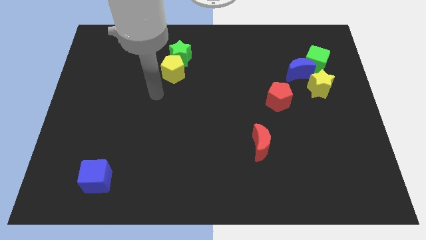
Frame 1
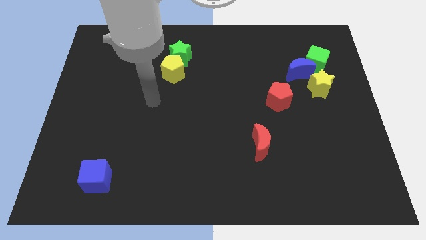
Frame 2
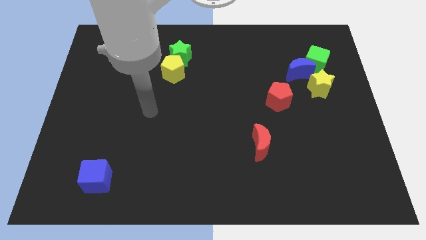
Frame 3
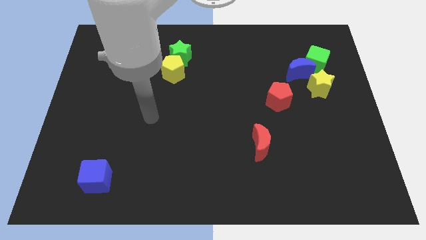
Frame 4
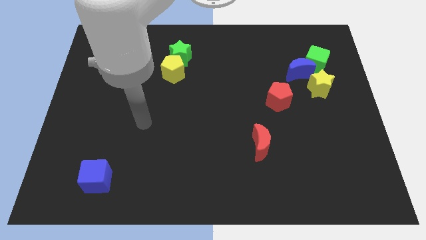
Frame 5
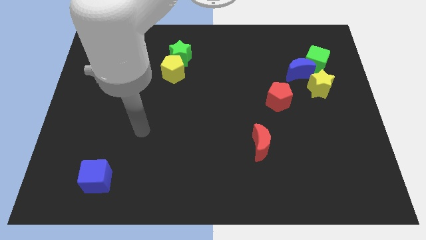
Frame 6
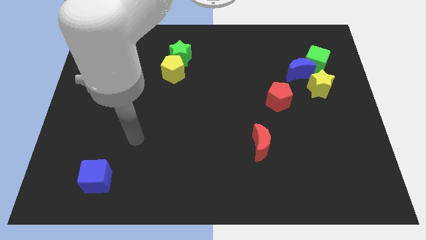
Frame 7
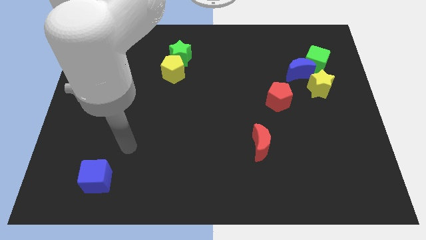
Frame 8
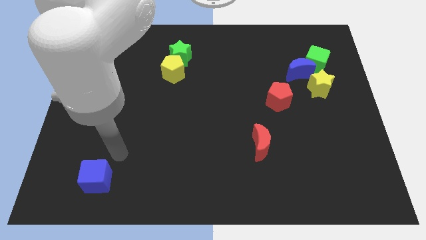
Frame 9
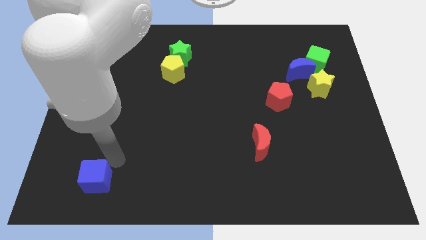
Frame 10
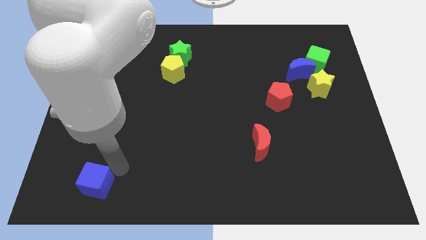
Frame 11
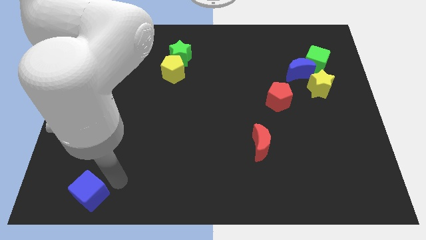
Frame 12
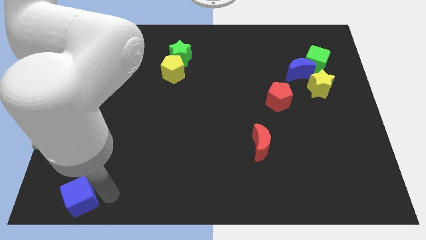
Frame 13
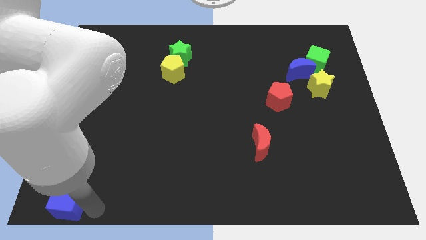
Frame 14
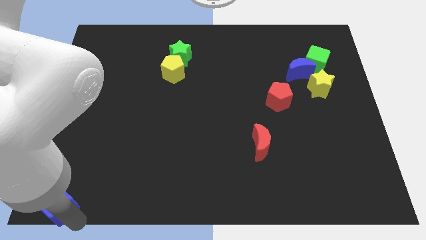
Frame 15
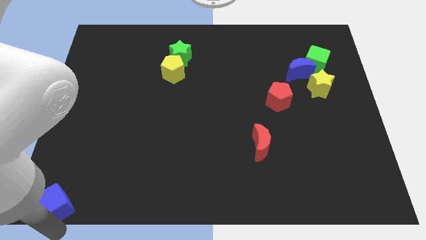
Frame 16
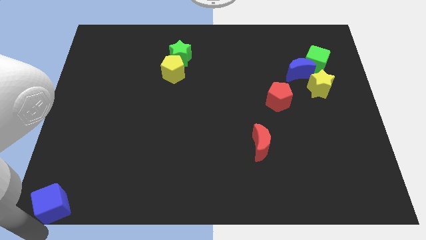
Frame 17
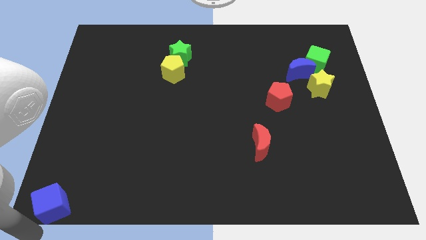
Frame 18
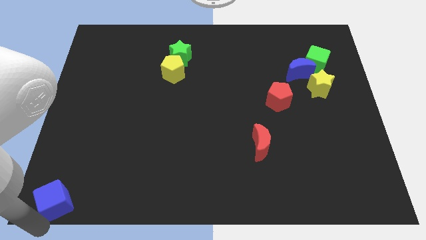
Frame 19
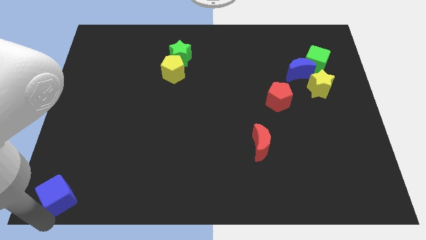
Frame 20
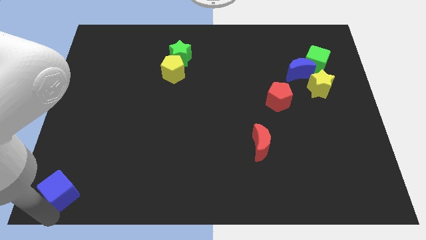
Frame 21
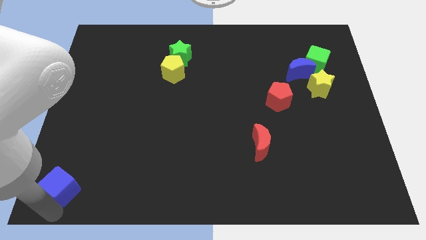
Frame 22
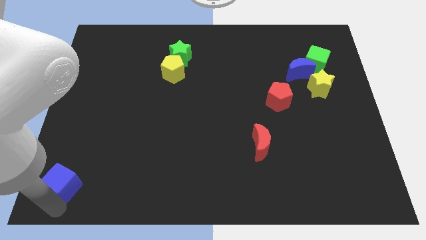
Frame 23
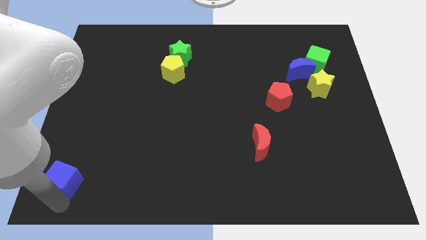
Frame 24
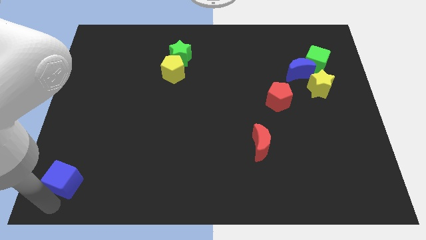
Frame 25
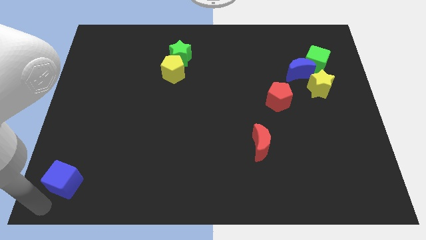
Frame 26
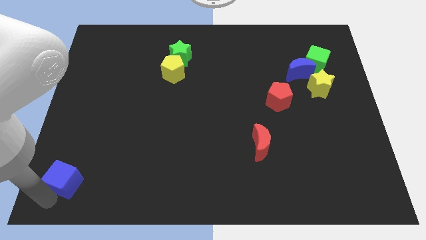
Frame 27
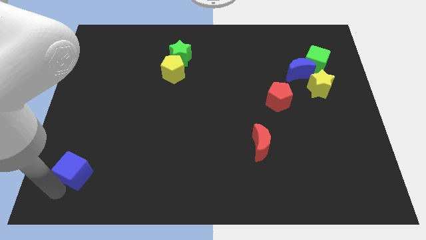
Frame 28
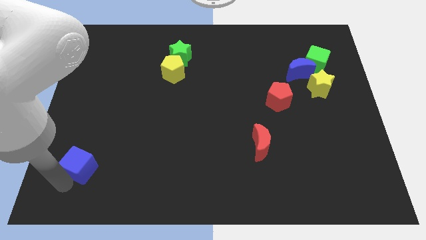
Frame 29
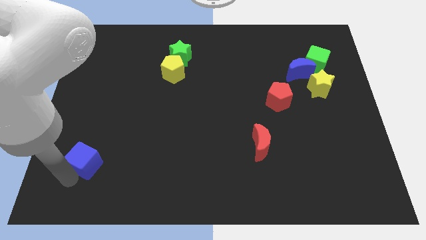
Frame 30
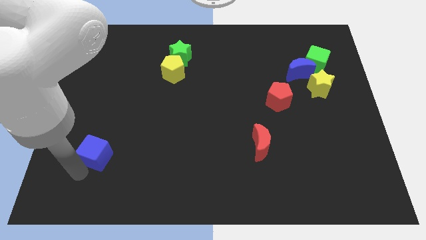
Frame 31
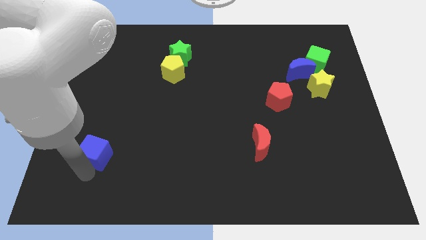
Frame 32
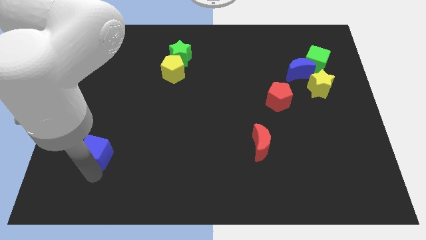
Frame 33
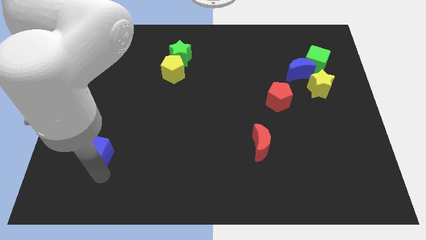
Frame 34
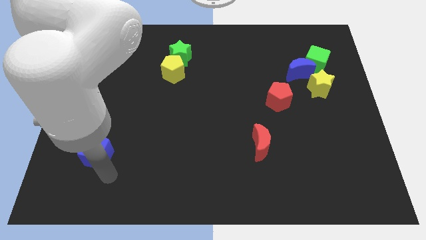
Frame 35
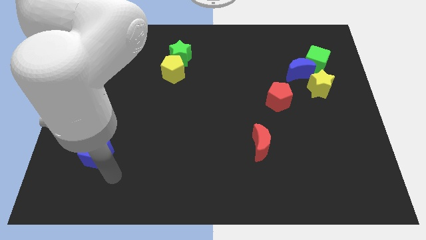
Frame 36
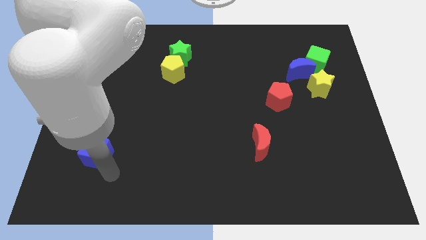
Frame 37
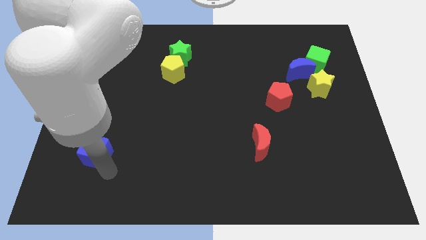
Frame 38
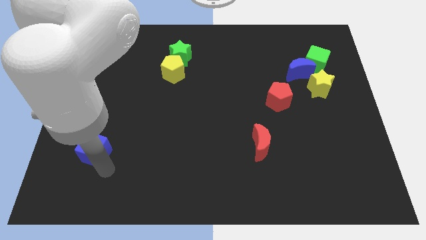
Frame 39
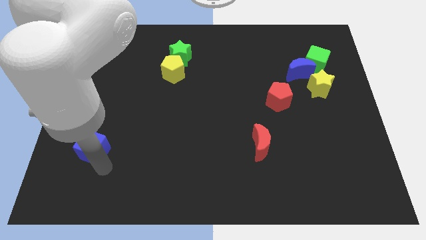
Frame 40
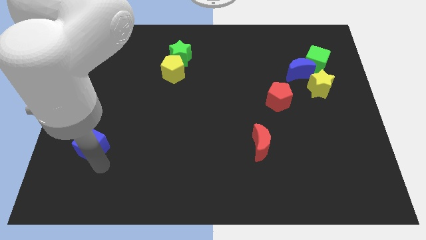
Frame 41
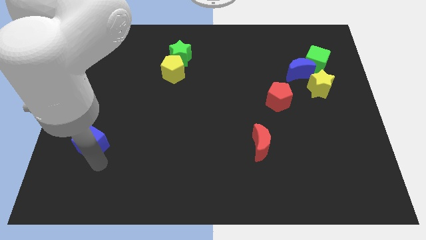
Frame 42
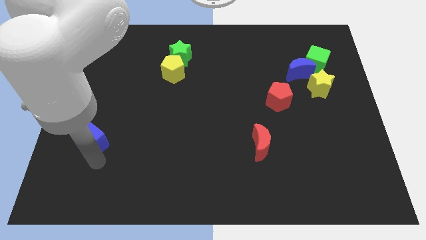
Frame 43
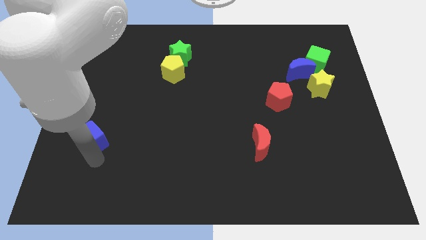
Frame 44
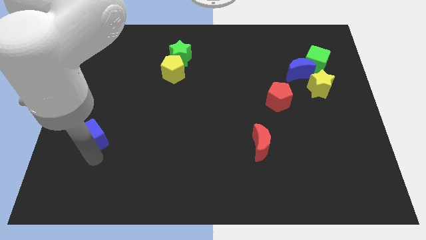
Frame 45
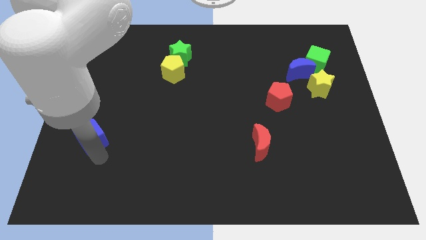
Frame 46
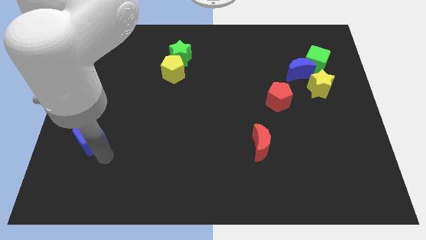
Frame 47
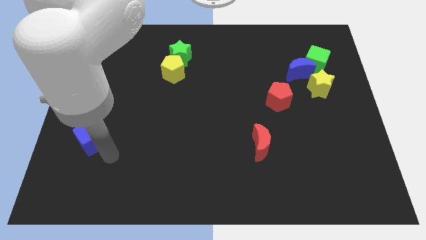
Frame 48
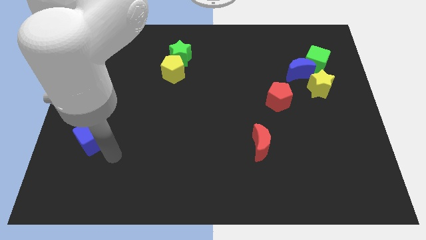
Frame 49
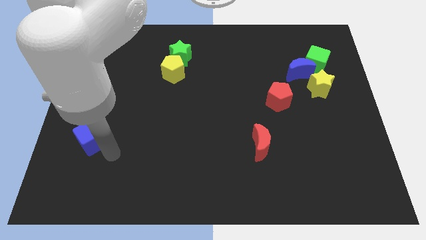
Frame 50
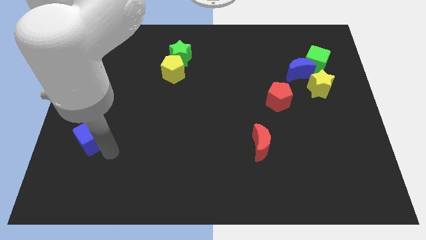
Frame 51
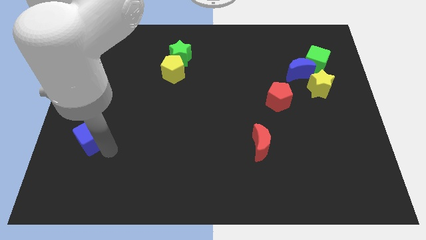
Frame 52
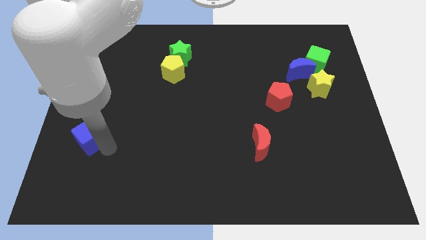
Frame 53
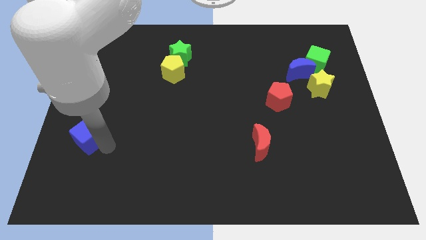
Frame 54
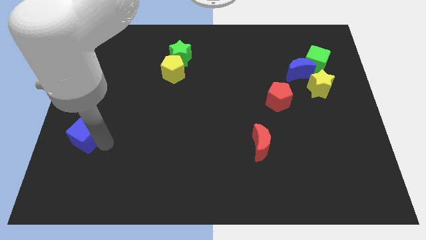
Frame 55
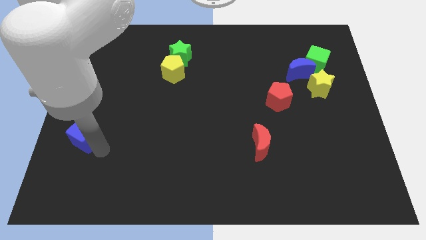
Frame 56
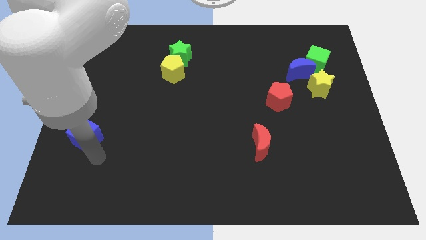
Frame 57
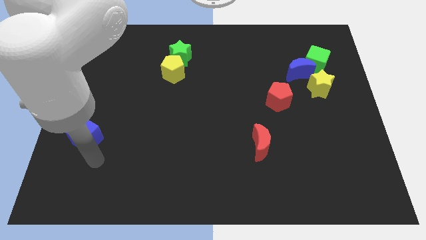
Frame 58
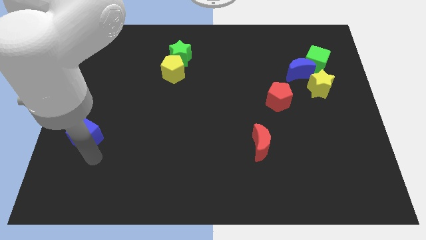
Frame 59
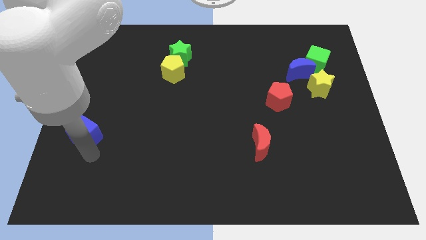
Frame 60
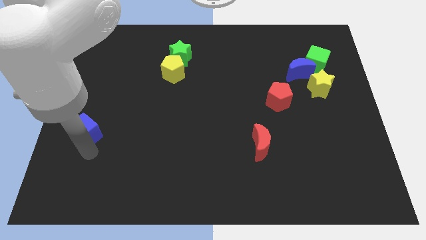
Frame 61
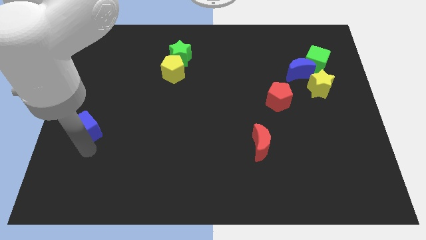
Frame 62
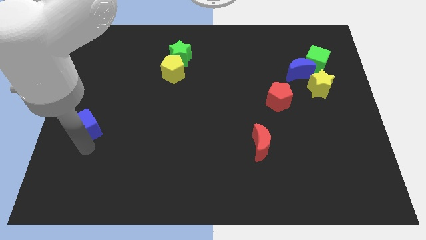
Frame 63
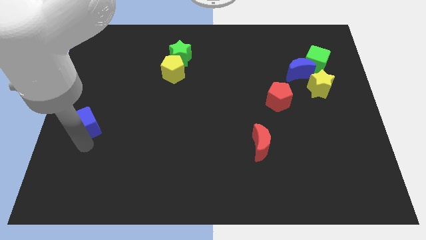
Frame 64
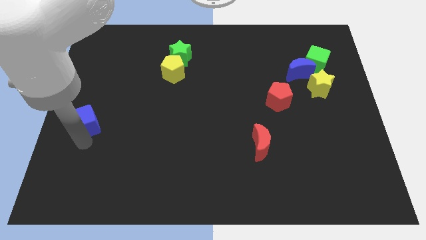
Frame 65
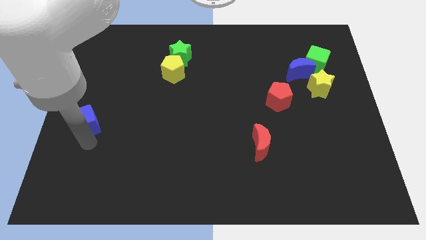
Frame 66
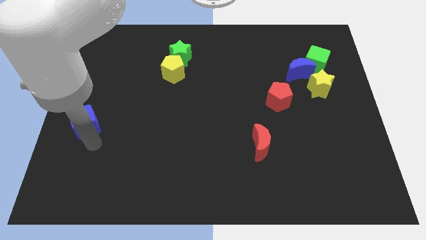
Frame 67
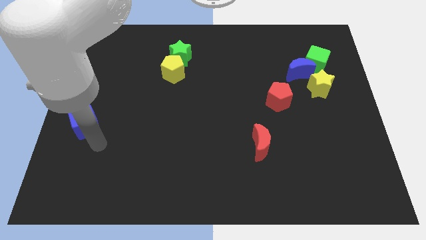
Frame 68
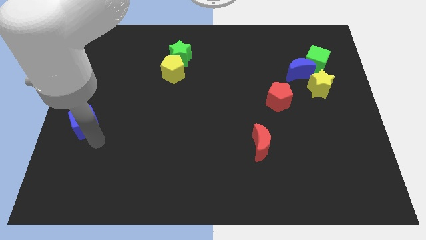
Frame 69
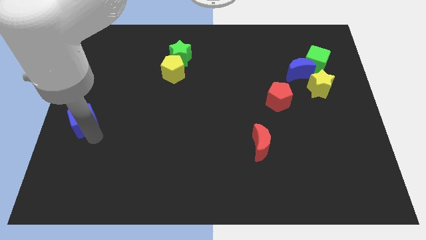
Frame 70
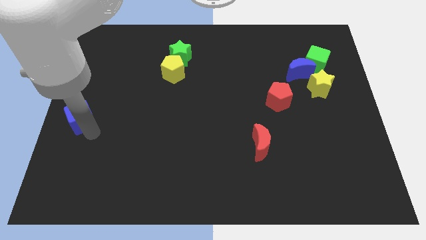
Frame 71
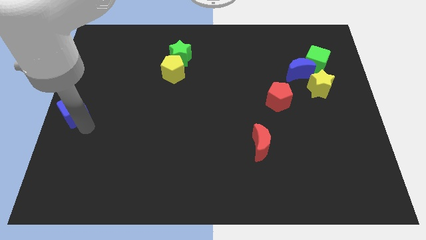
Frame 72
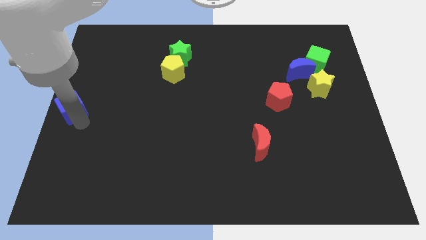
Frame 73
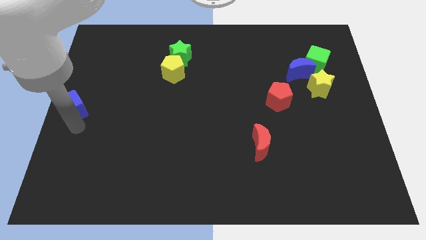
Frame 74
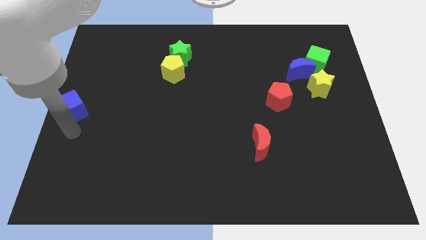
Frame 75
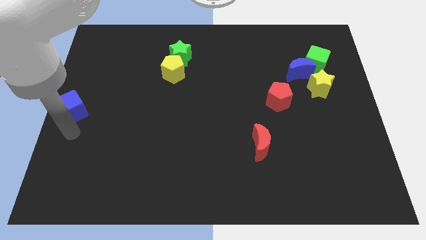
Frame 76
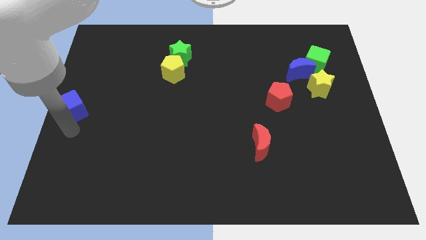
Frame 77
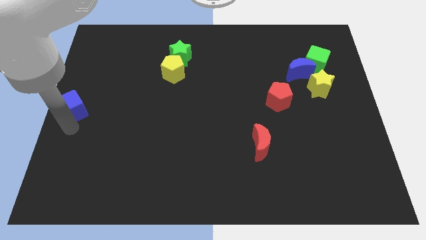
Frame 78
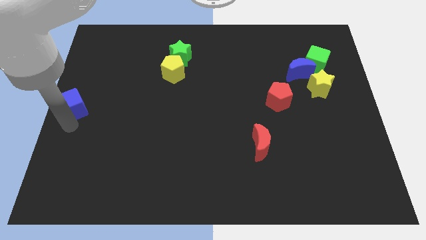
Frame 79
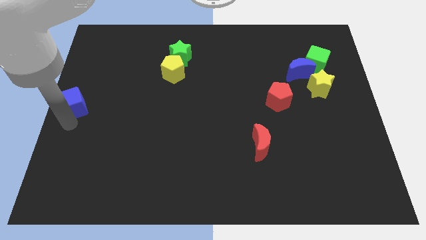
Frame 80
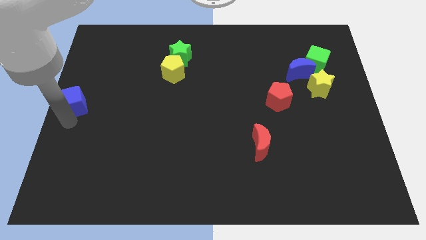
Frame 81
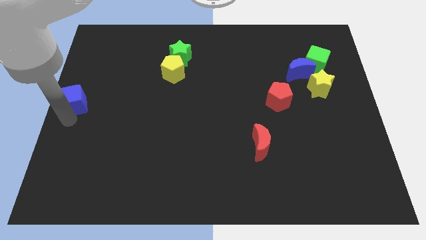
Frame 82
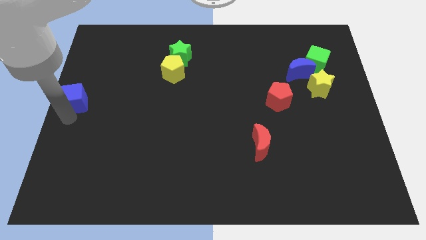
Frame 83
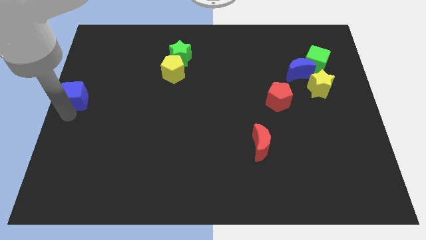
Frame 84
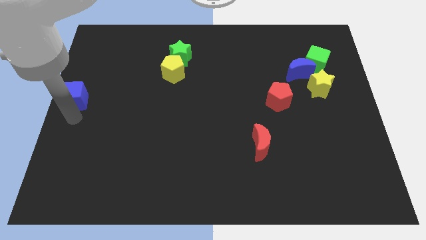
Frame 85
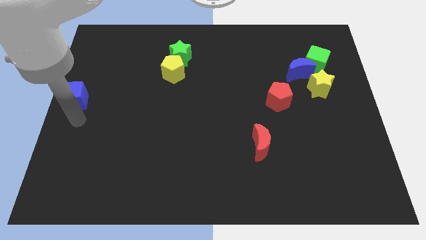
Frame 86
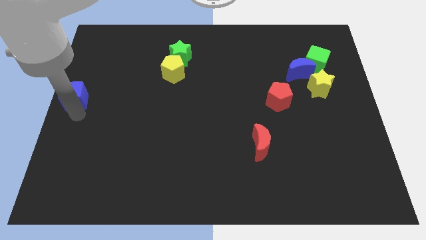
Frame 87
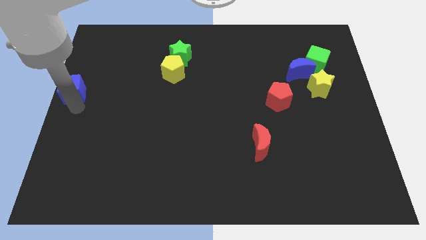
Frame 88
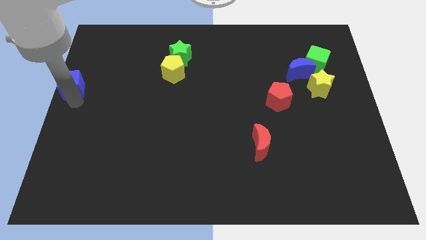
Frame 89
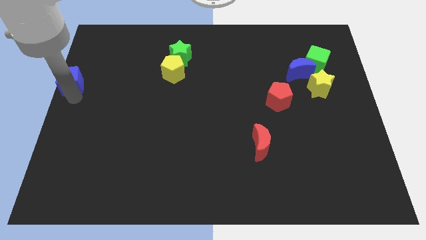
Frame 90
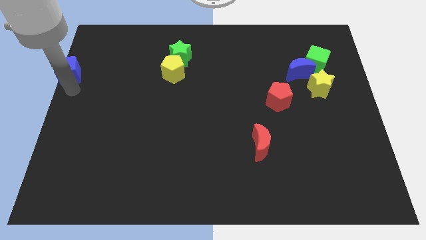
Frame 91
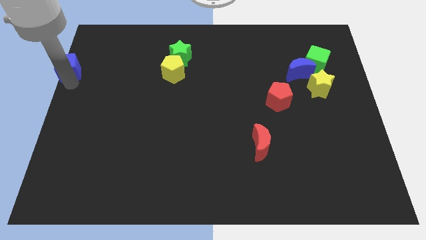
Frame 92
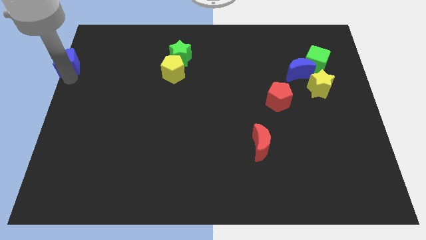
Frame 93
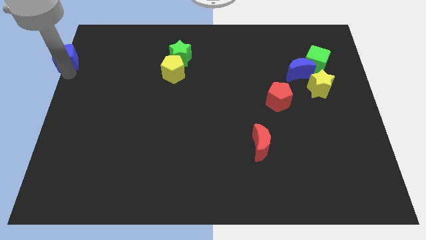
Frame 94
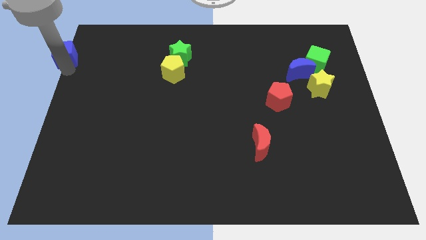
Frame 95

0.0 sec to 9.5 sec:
push the blue cube to the upper left corner
